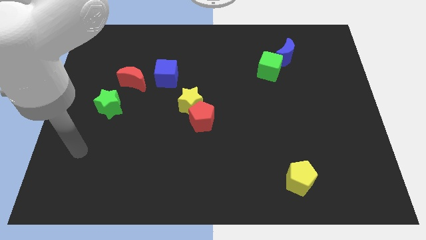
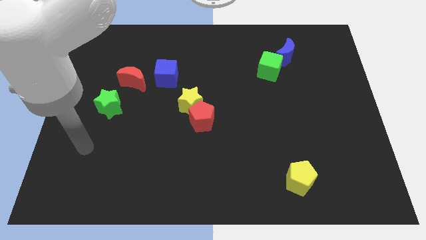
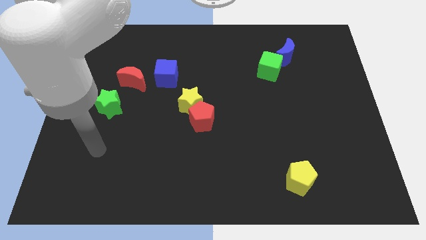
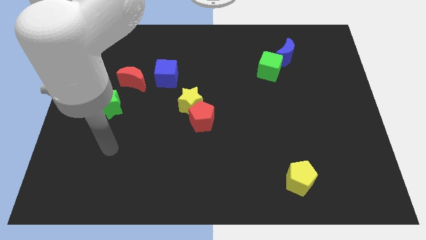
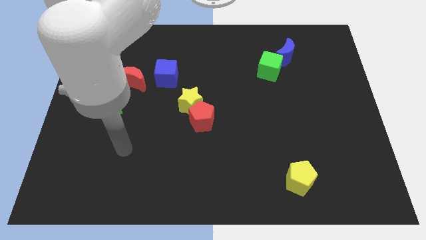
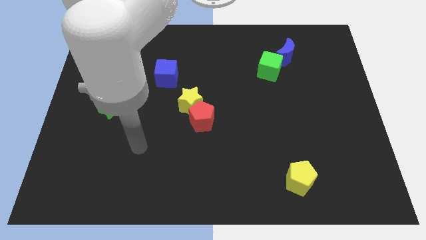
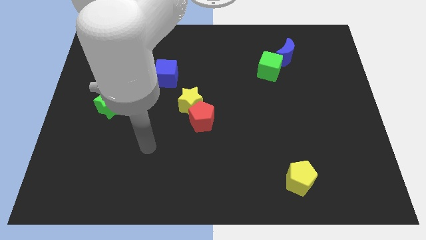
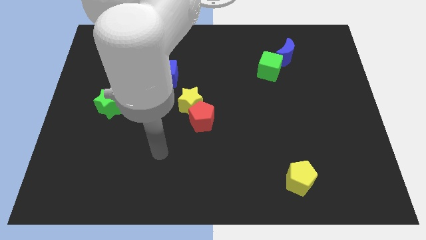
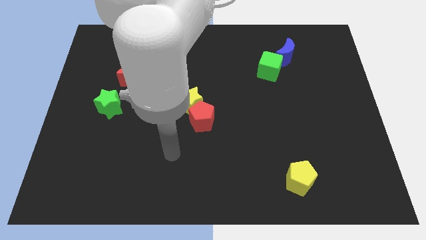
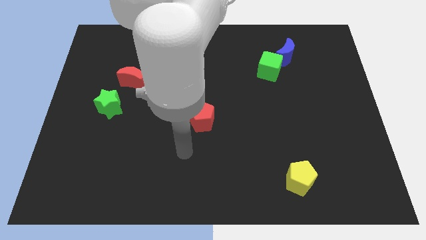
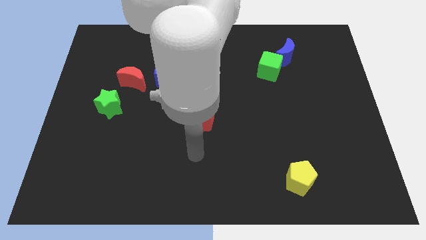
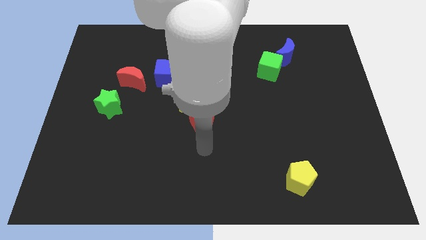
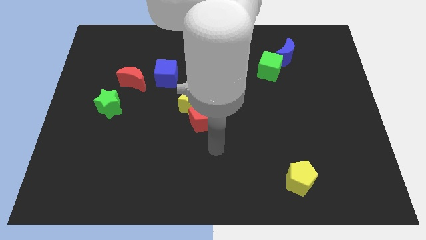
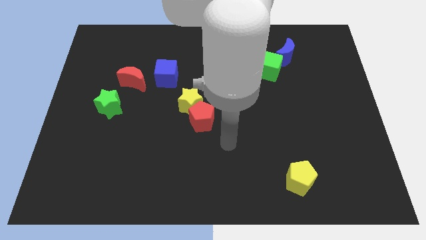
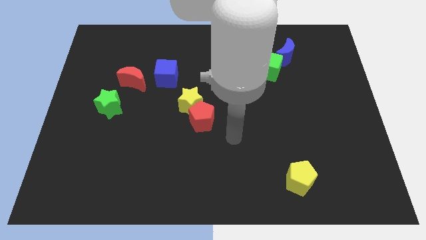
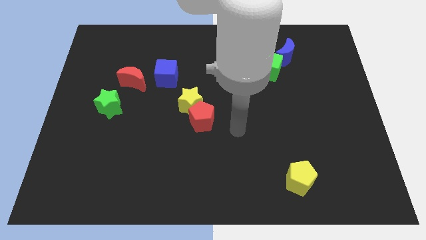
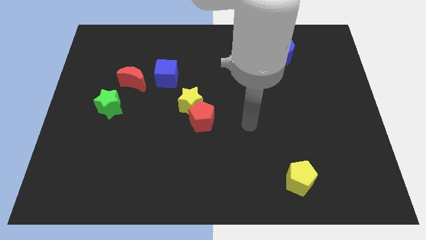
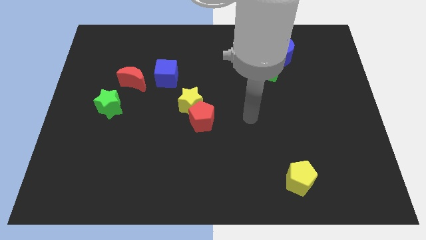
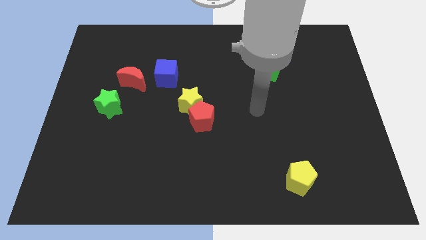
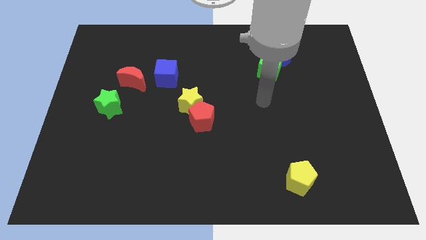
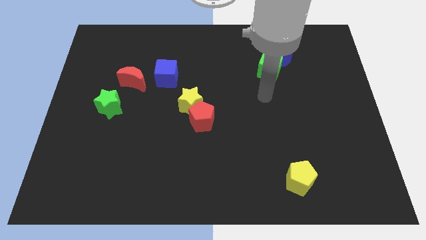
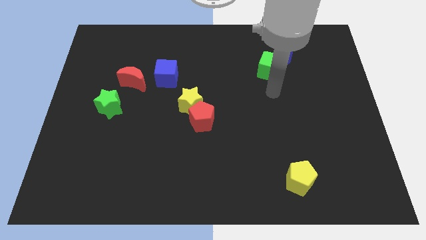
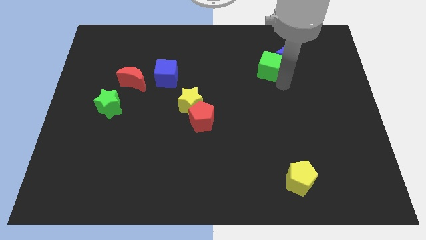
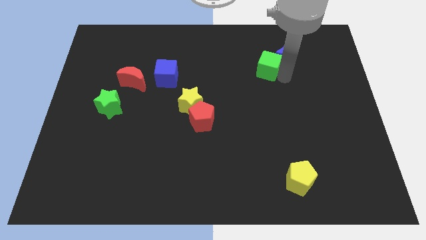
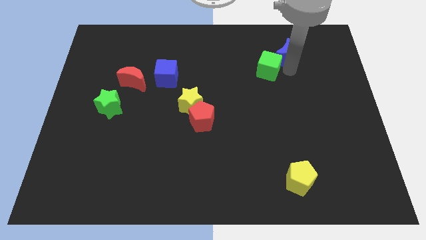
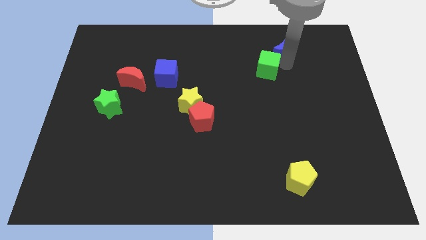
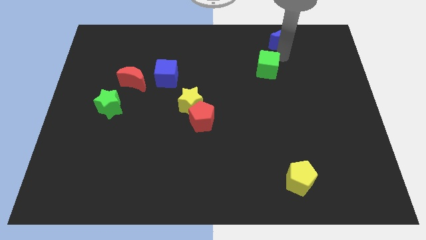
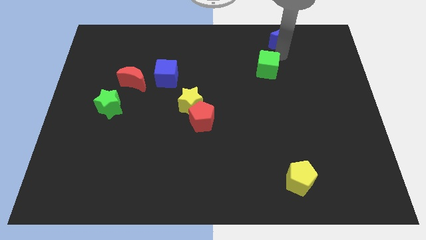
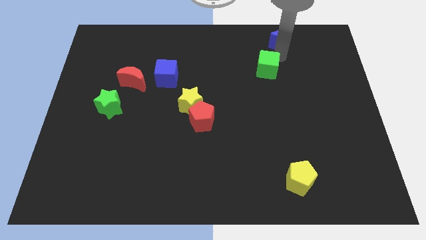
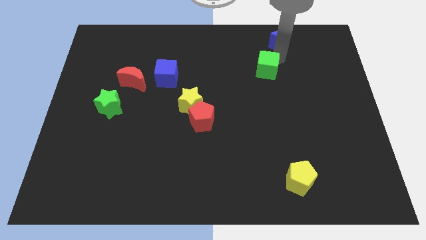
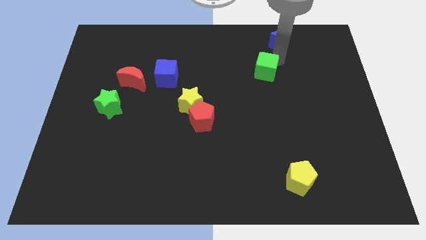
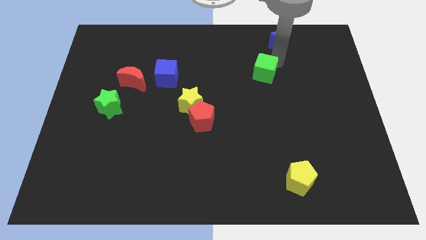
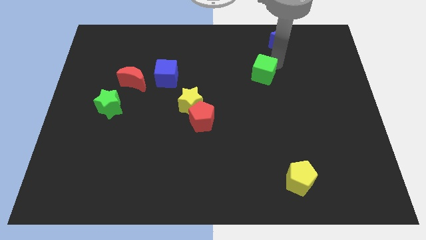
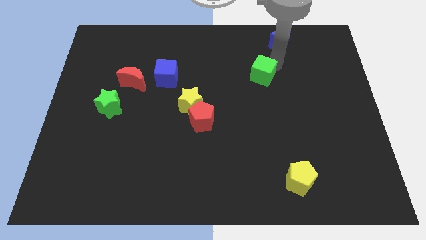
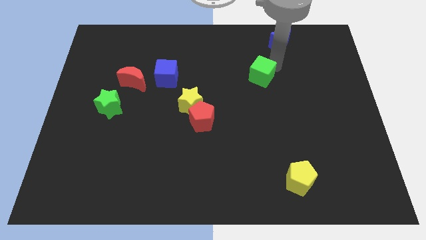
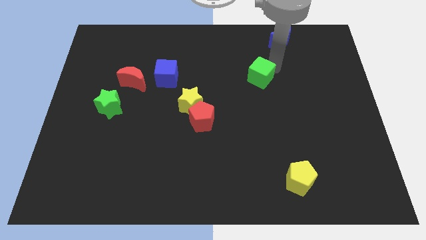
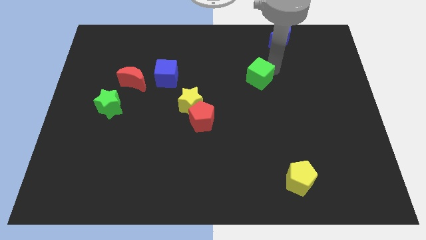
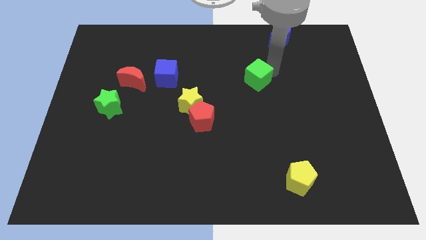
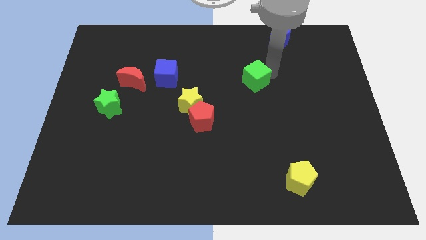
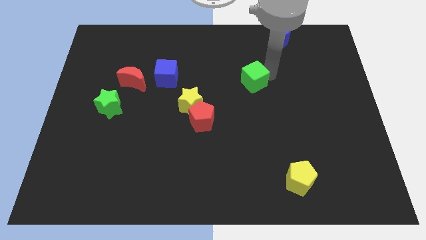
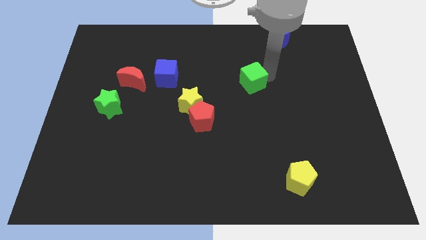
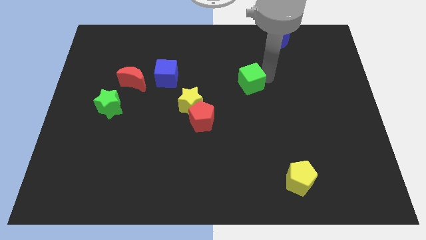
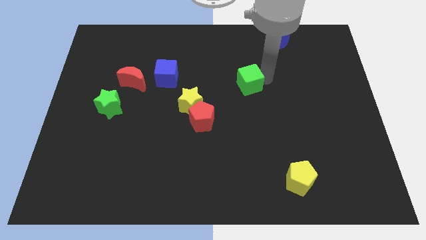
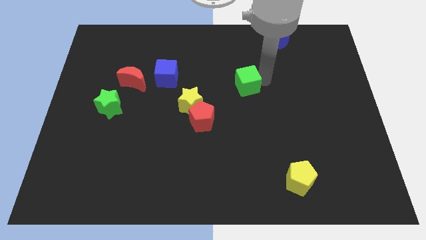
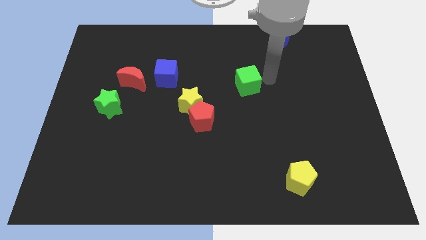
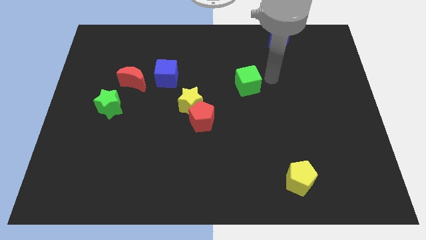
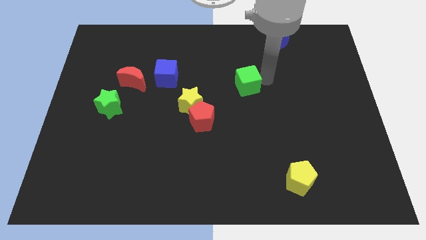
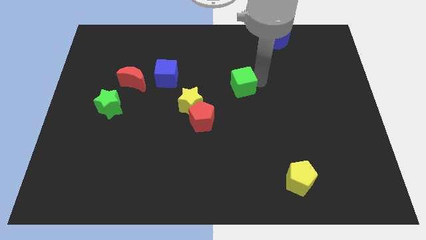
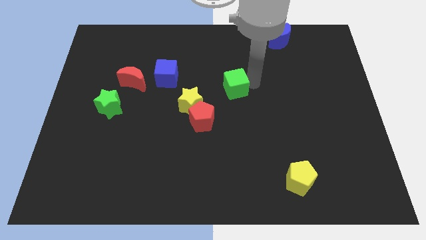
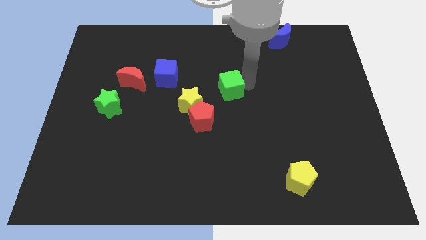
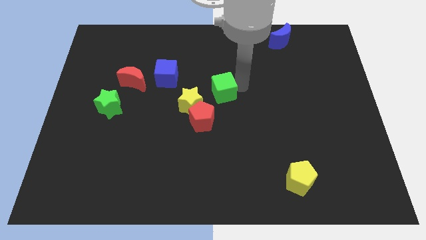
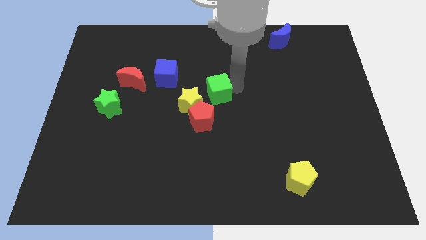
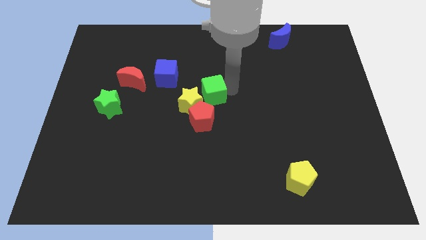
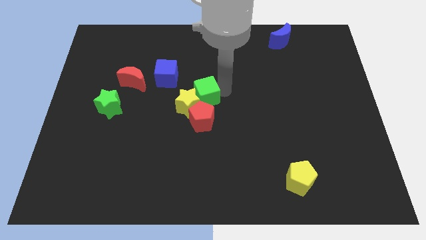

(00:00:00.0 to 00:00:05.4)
push the green cube to the yellow star

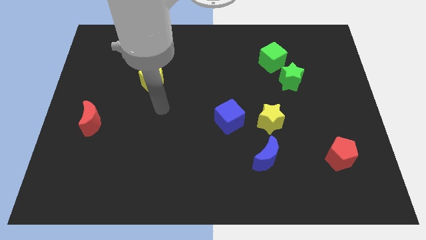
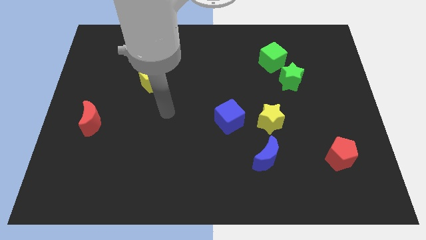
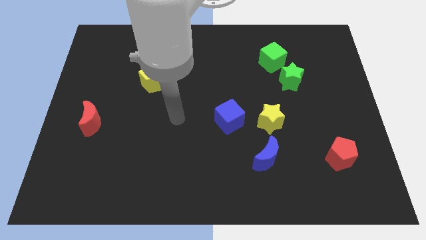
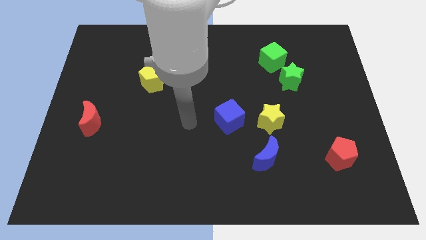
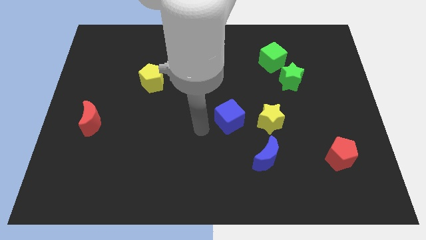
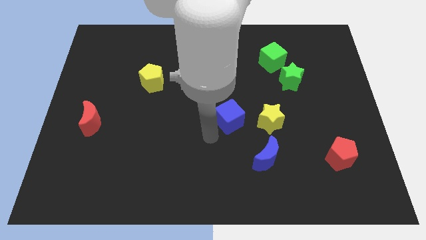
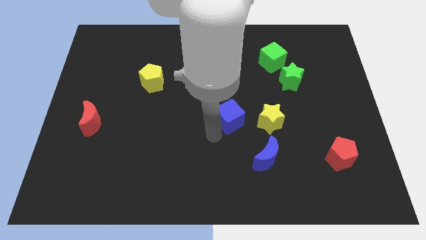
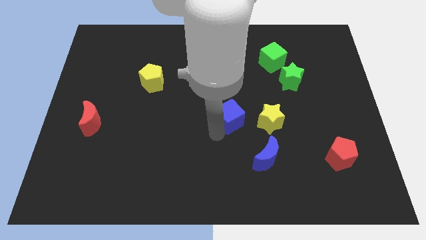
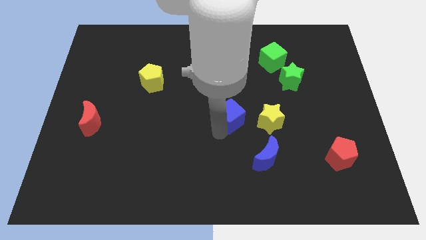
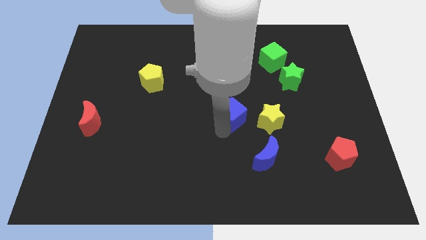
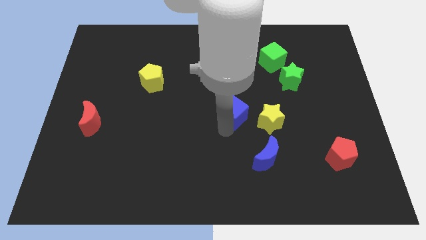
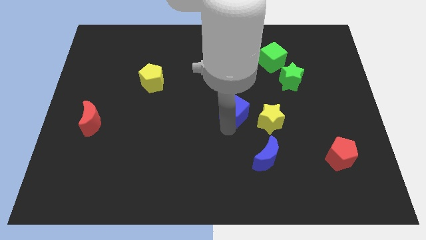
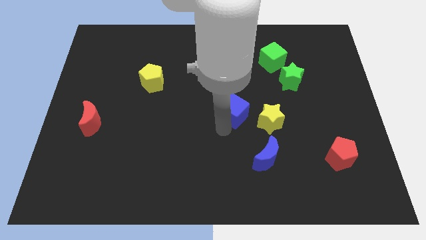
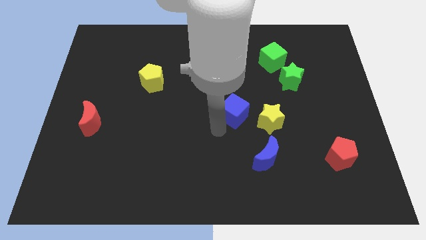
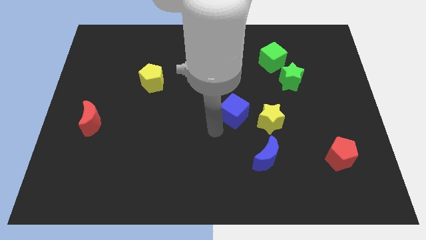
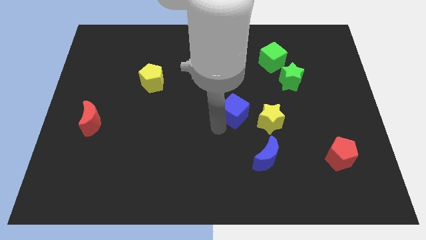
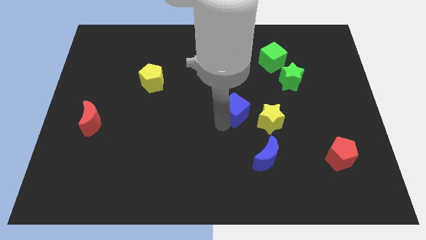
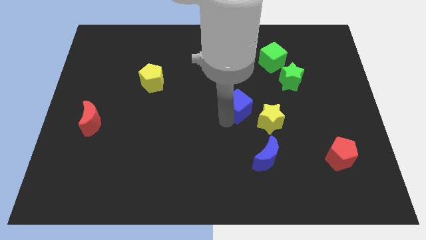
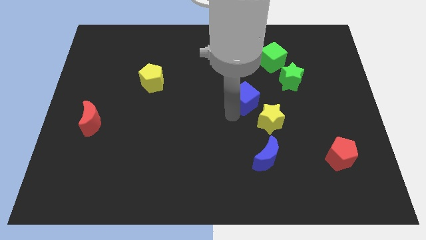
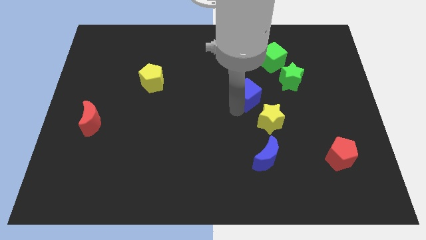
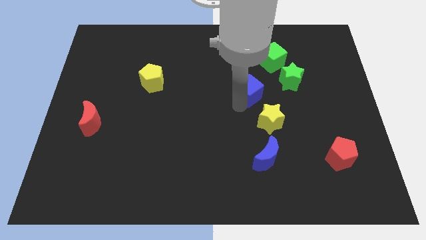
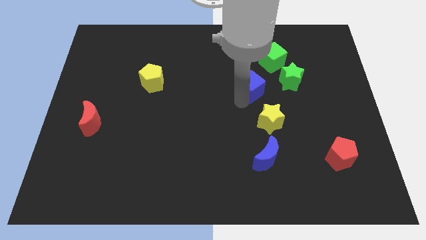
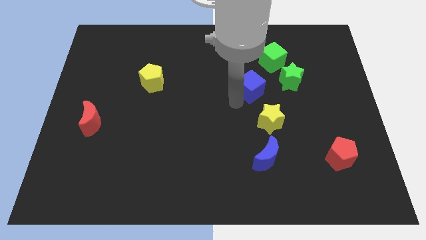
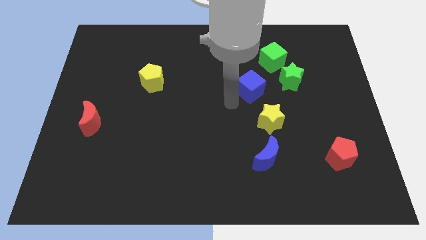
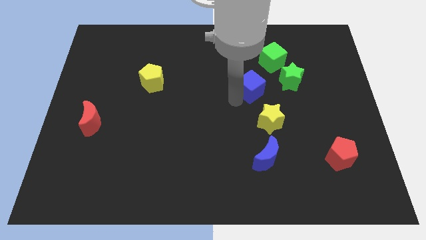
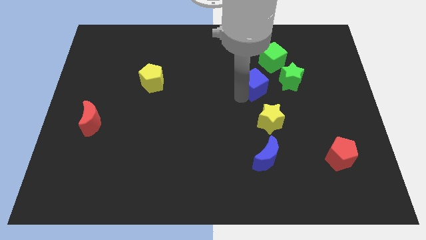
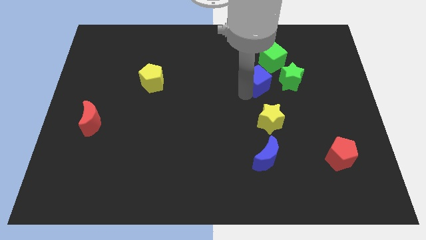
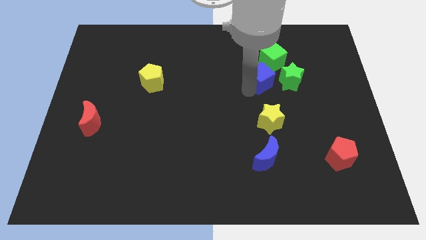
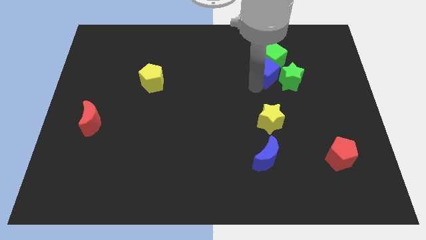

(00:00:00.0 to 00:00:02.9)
slide the blue cube next to the green cube
